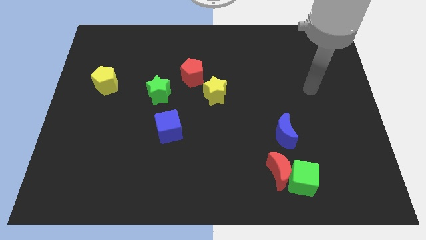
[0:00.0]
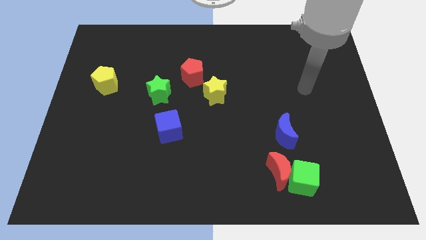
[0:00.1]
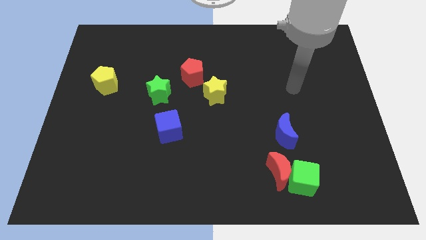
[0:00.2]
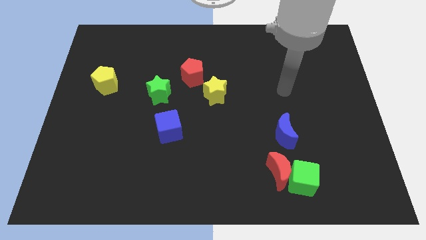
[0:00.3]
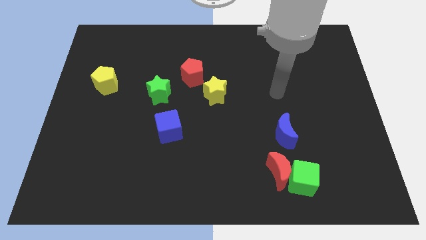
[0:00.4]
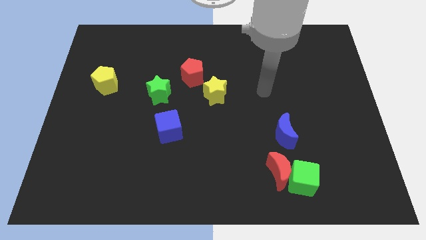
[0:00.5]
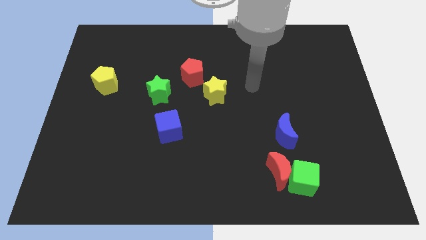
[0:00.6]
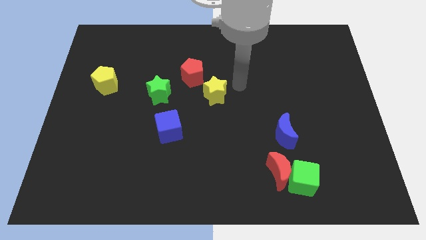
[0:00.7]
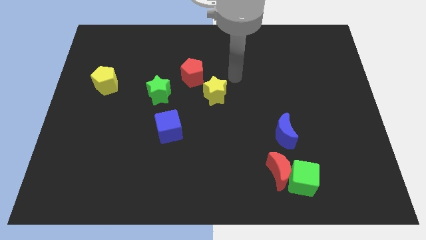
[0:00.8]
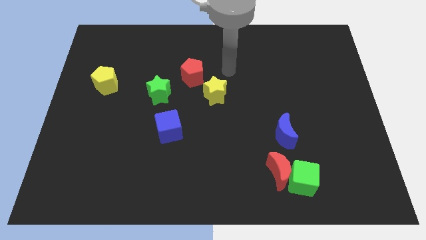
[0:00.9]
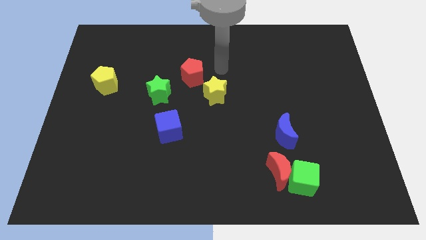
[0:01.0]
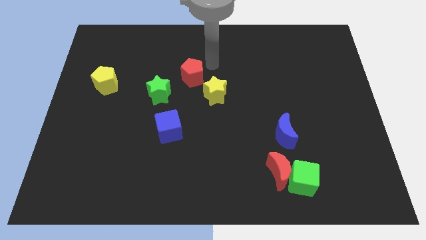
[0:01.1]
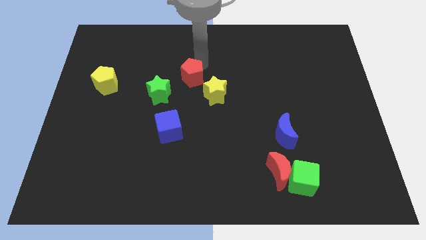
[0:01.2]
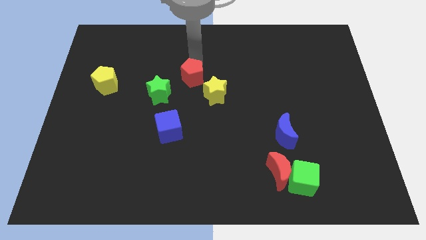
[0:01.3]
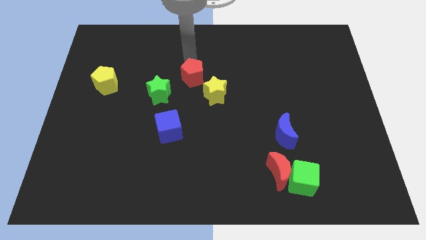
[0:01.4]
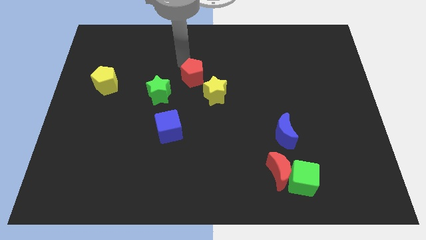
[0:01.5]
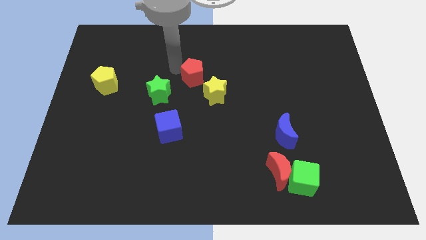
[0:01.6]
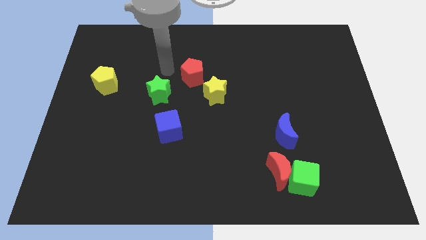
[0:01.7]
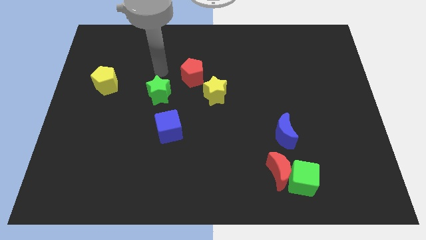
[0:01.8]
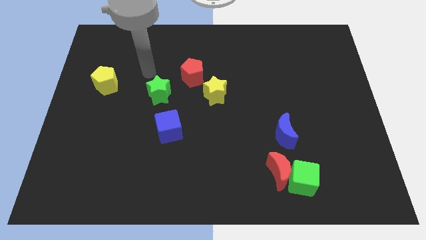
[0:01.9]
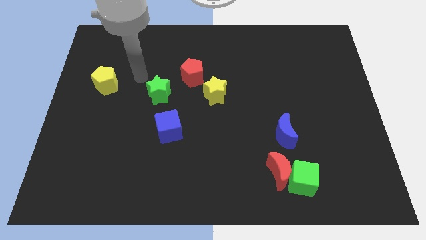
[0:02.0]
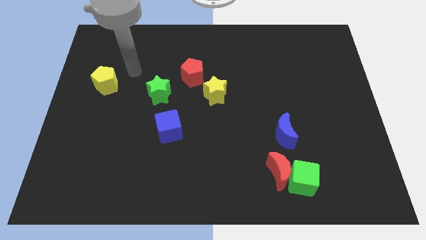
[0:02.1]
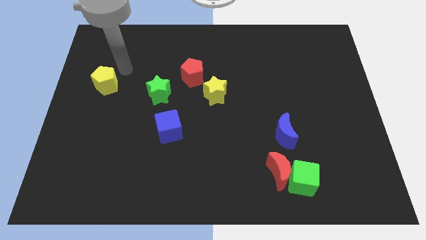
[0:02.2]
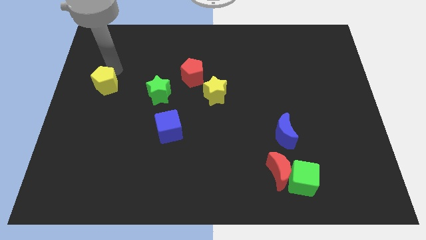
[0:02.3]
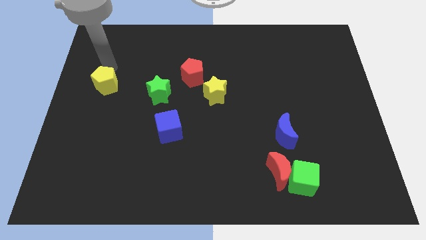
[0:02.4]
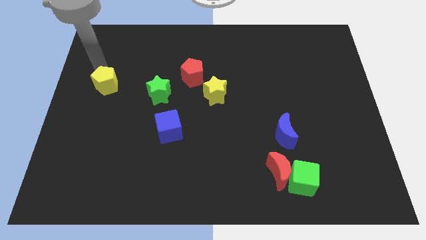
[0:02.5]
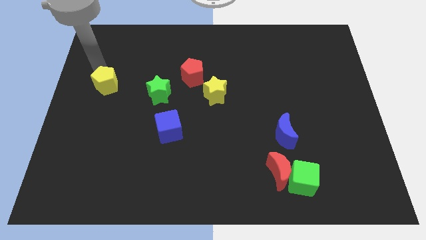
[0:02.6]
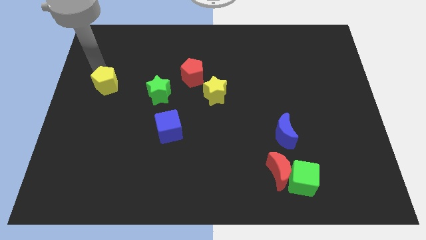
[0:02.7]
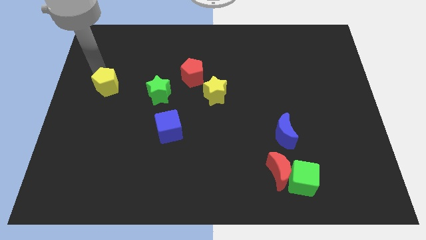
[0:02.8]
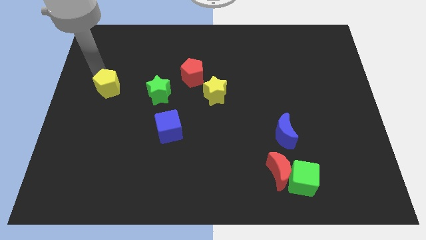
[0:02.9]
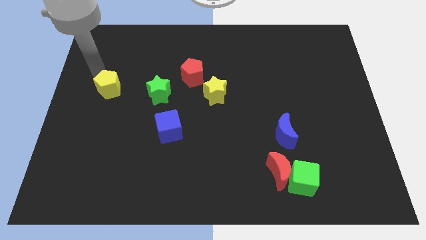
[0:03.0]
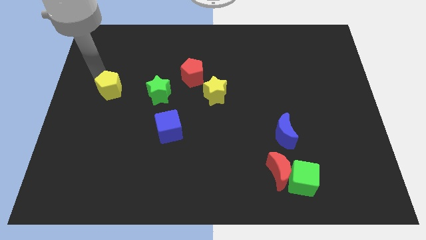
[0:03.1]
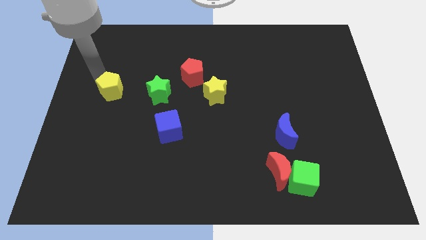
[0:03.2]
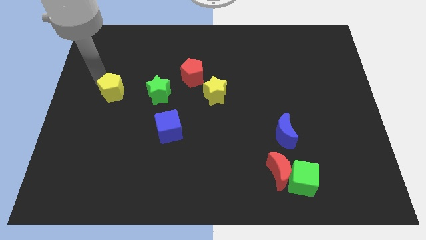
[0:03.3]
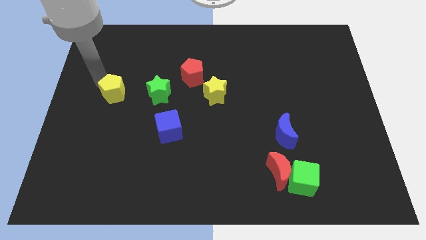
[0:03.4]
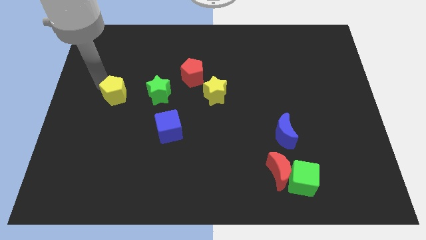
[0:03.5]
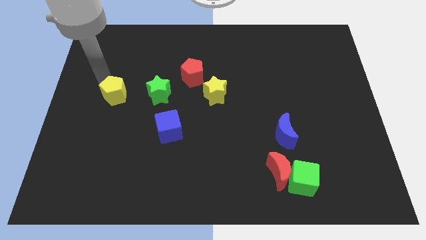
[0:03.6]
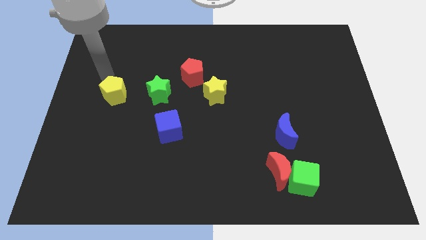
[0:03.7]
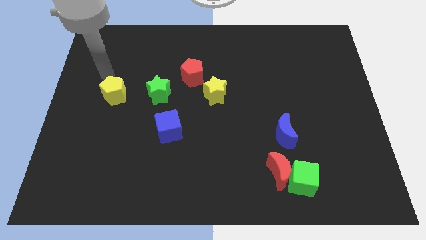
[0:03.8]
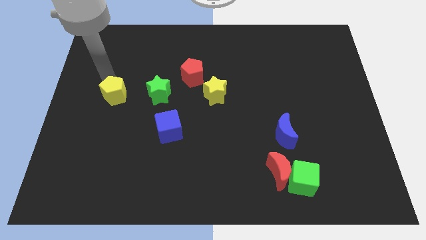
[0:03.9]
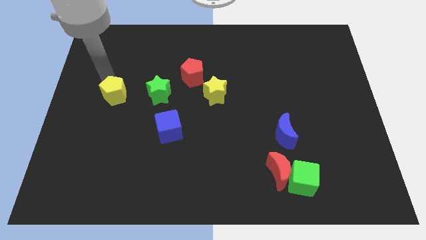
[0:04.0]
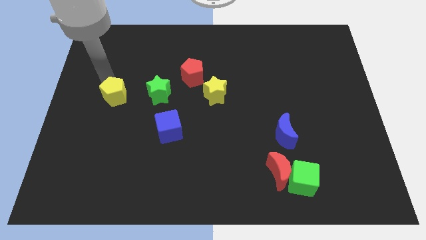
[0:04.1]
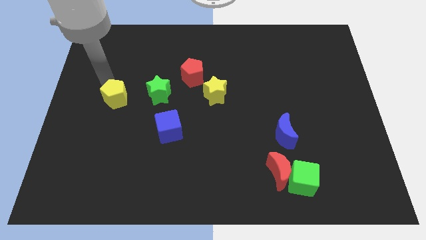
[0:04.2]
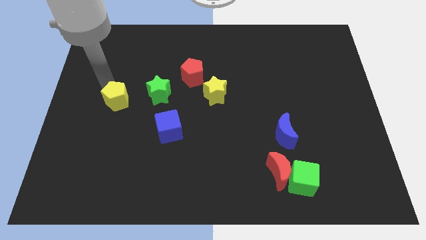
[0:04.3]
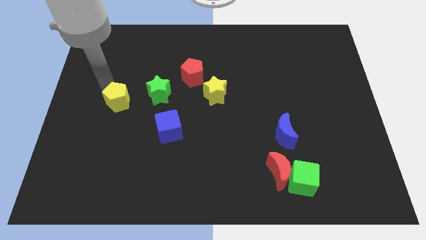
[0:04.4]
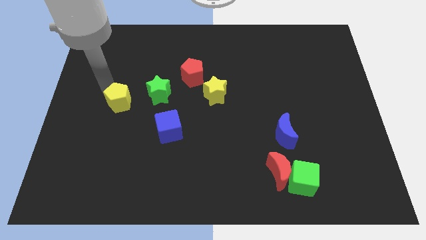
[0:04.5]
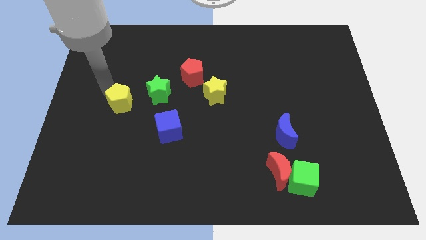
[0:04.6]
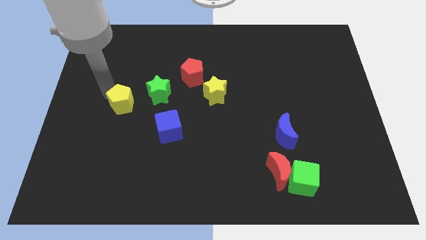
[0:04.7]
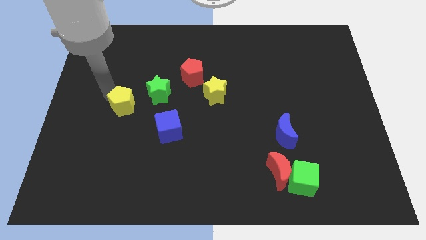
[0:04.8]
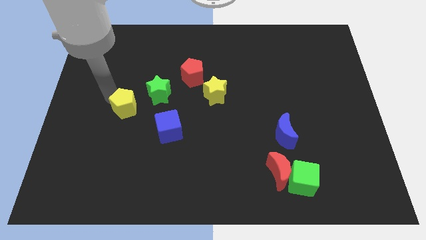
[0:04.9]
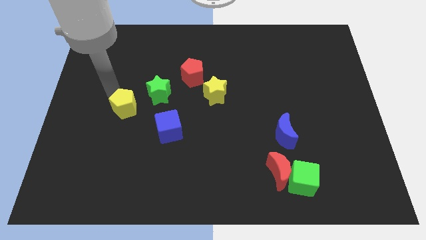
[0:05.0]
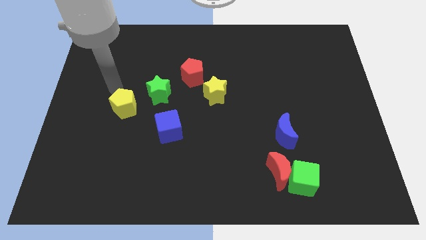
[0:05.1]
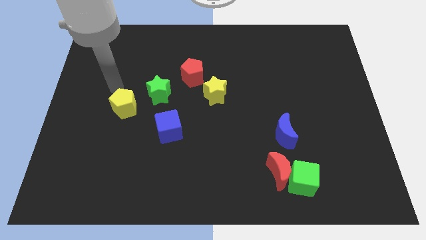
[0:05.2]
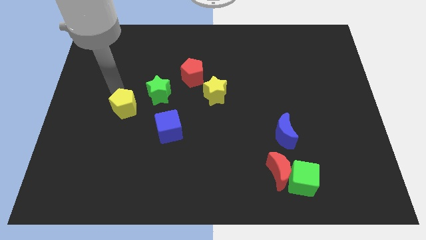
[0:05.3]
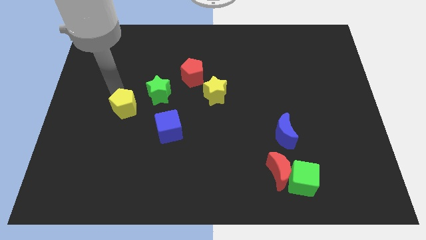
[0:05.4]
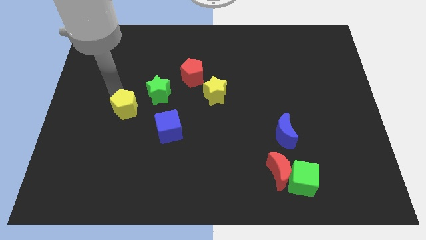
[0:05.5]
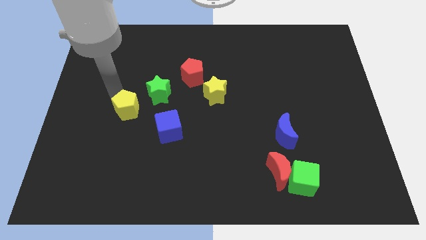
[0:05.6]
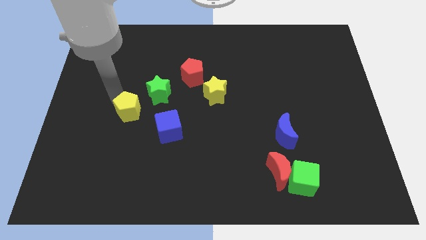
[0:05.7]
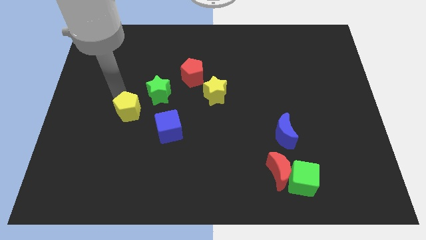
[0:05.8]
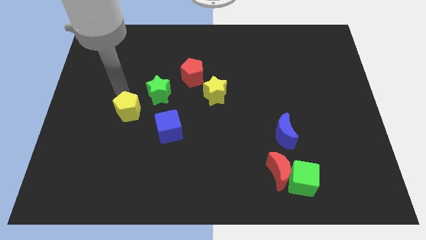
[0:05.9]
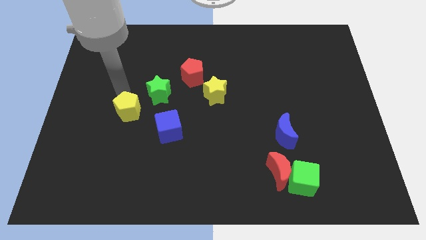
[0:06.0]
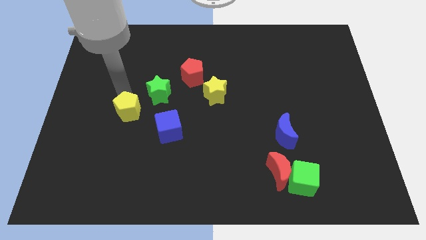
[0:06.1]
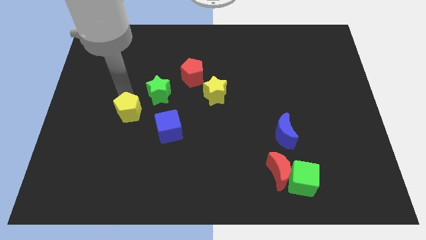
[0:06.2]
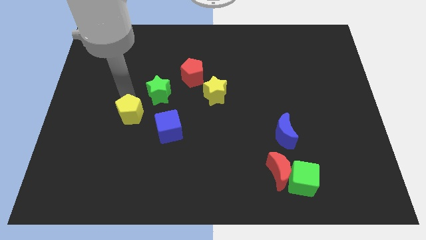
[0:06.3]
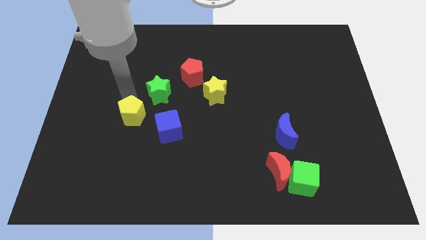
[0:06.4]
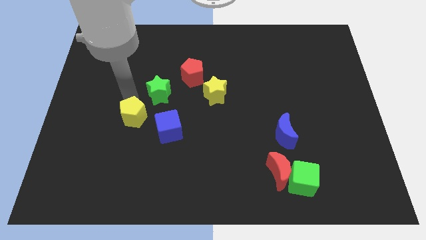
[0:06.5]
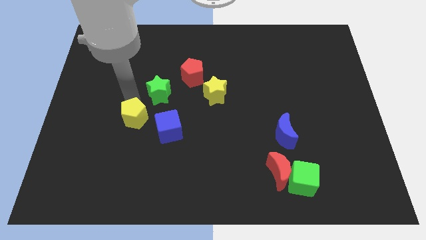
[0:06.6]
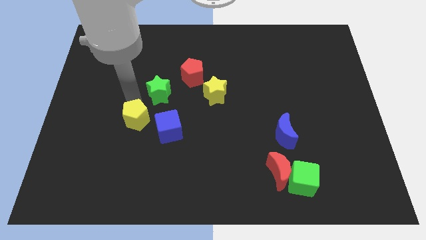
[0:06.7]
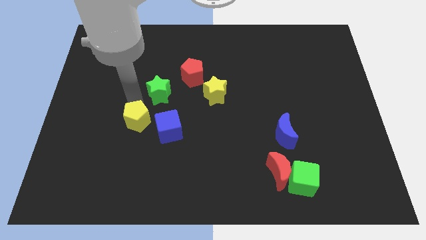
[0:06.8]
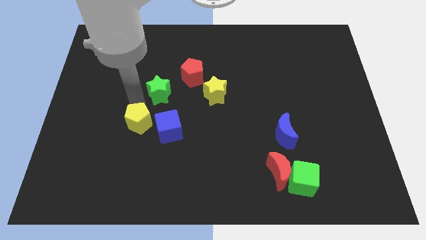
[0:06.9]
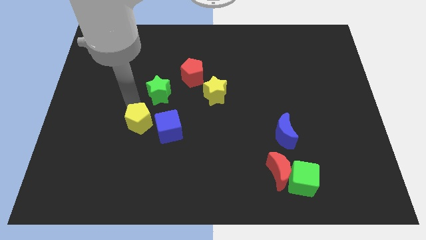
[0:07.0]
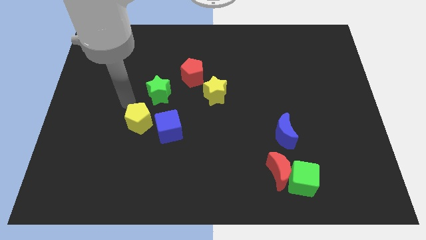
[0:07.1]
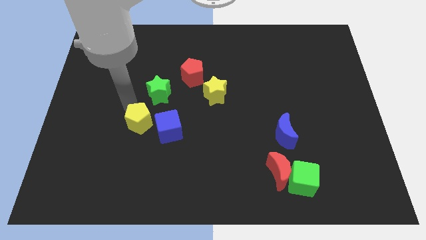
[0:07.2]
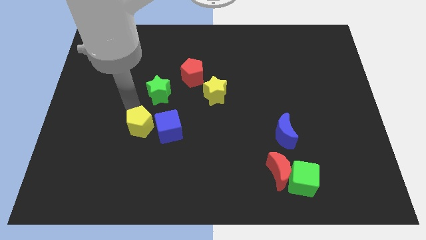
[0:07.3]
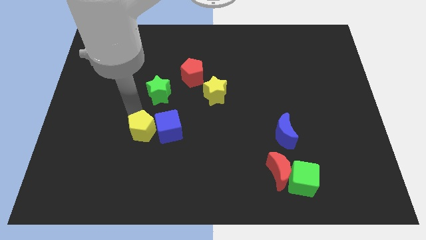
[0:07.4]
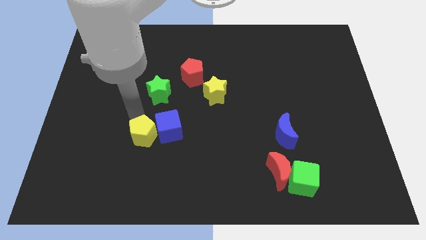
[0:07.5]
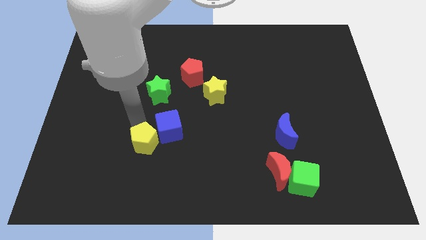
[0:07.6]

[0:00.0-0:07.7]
push the yellow pentagon downwards and right

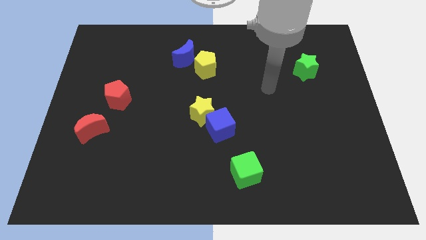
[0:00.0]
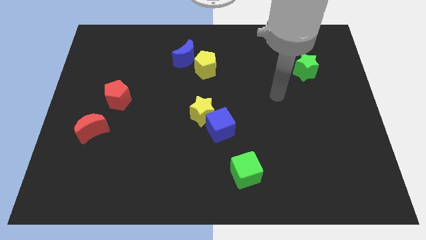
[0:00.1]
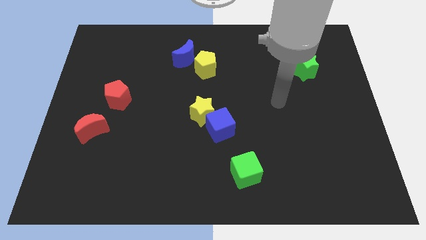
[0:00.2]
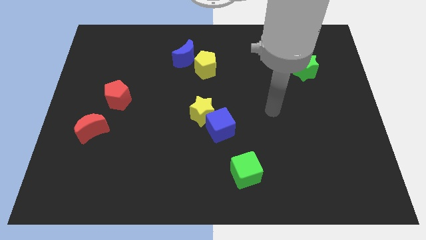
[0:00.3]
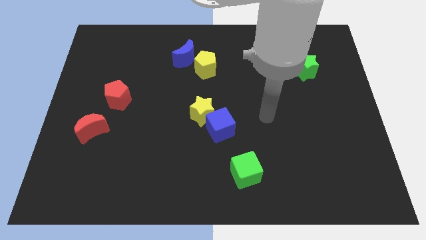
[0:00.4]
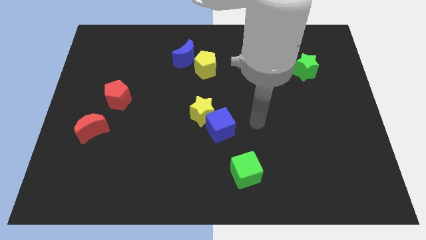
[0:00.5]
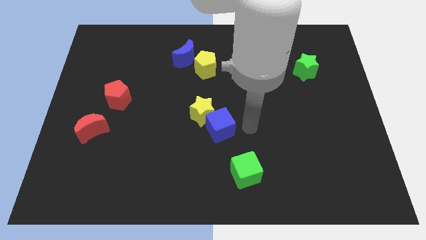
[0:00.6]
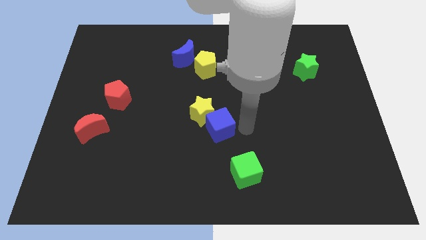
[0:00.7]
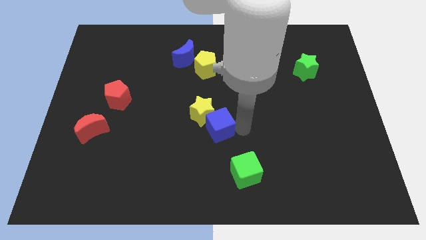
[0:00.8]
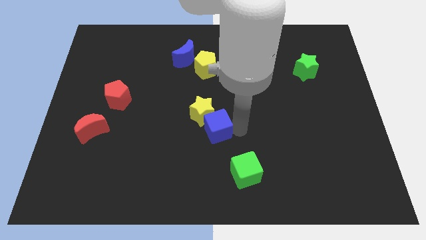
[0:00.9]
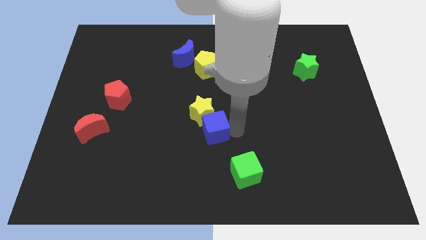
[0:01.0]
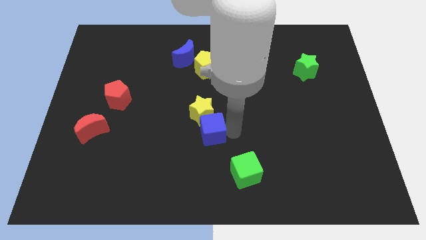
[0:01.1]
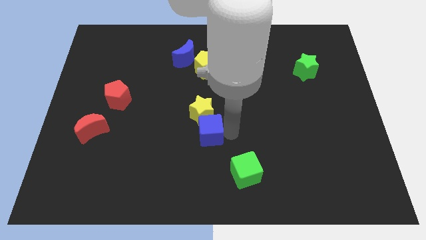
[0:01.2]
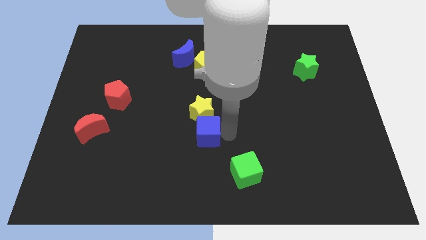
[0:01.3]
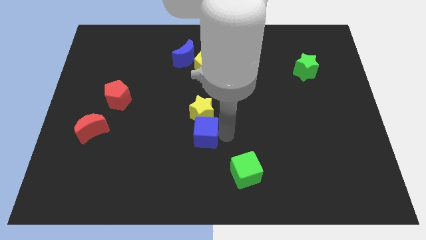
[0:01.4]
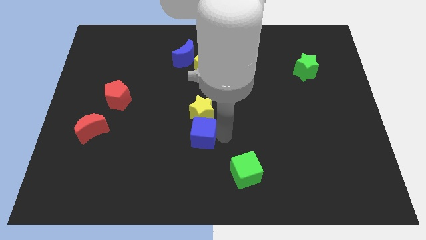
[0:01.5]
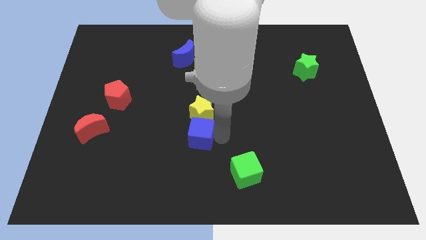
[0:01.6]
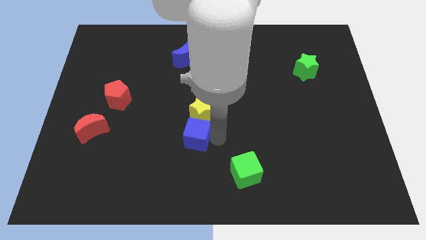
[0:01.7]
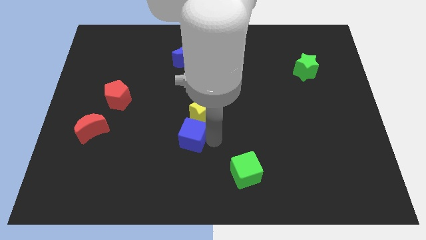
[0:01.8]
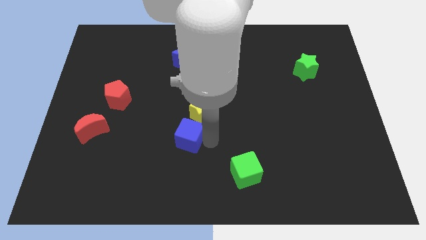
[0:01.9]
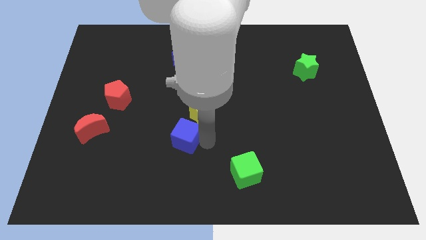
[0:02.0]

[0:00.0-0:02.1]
slide the blue cube a little left
